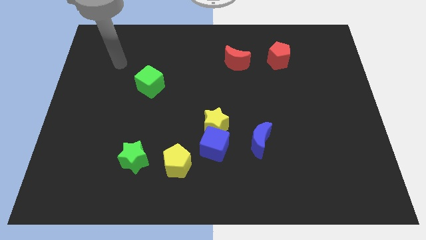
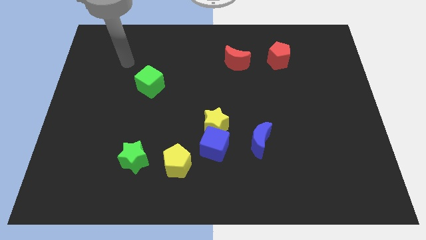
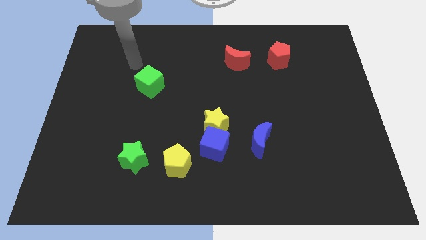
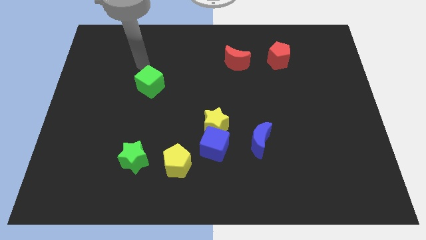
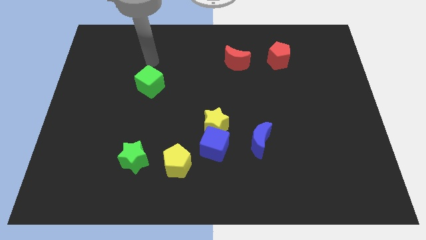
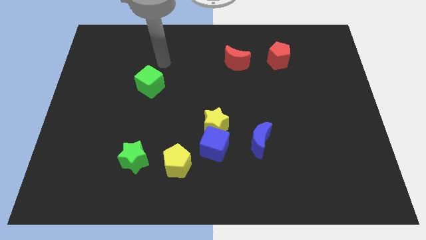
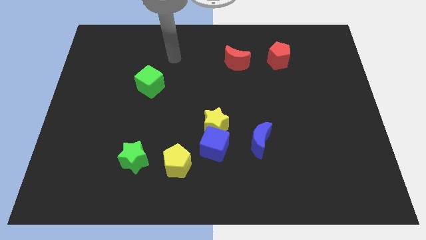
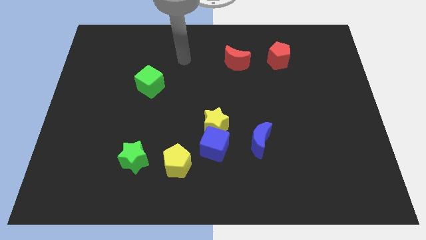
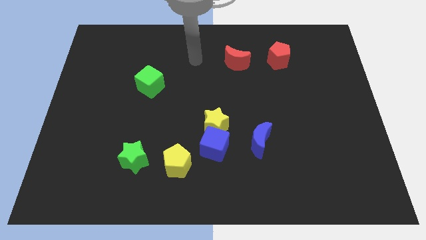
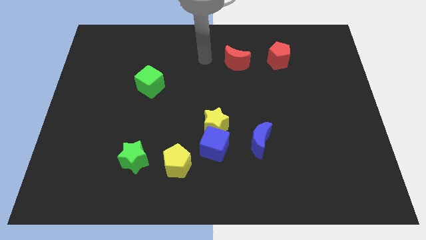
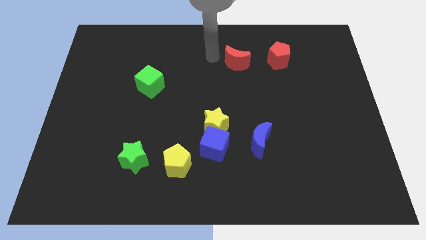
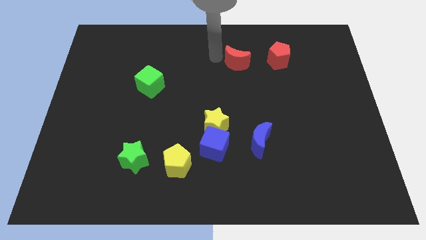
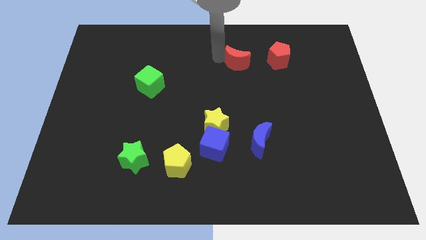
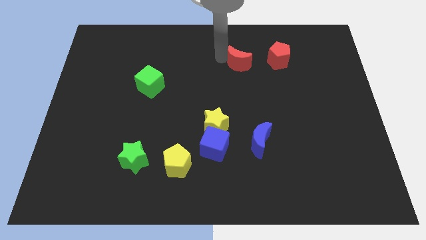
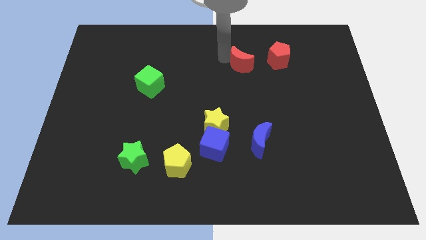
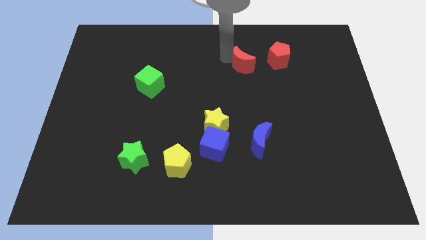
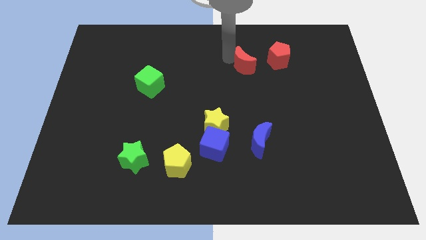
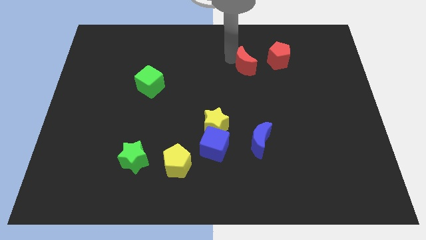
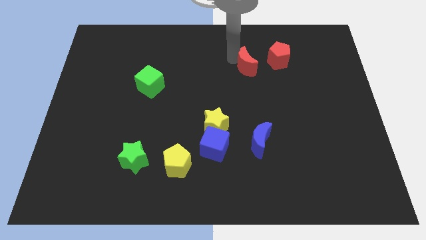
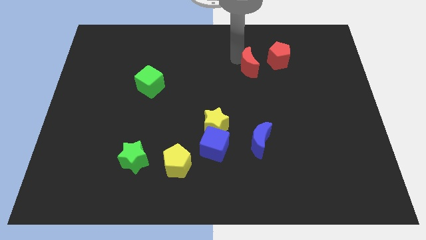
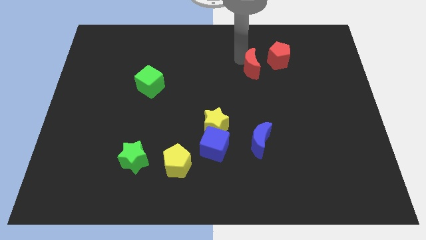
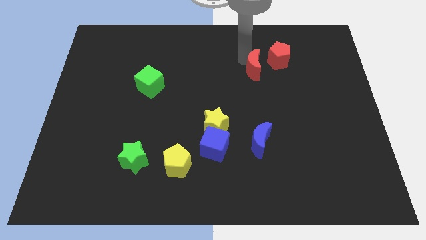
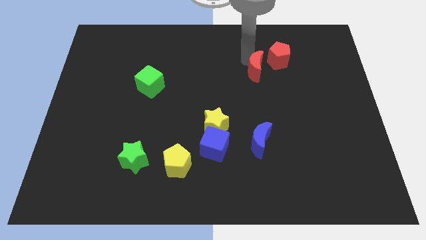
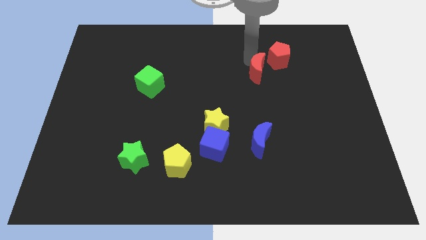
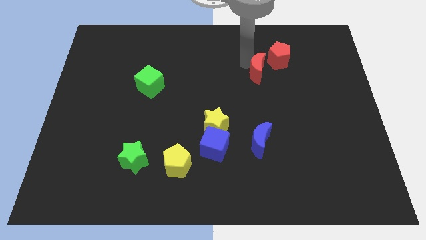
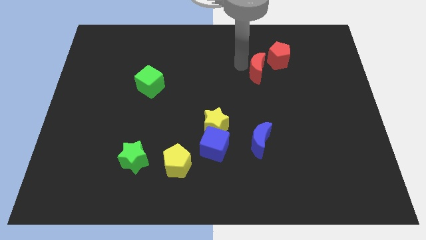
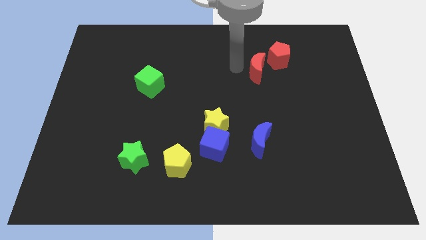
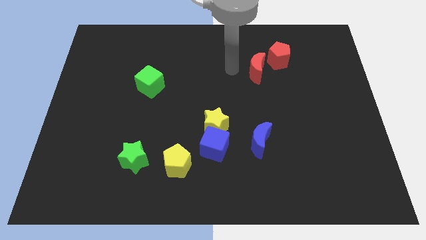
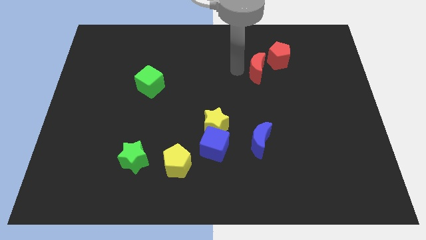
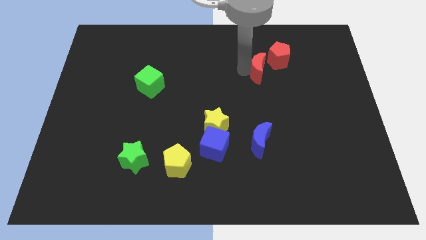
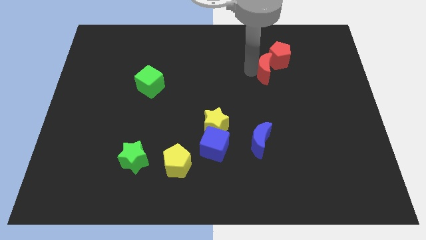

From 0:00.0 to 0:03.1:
slide the red moon right a bit

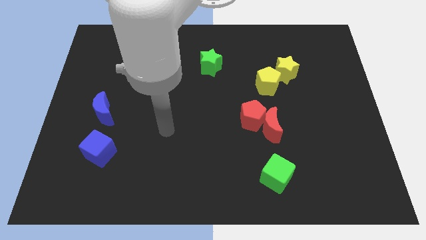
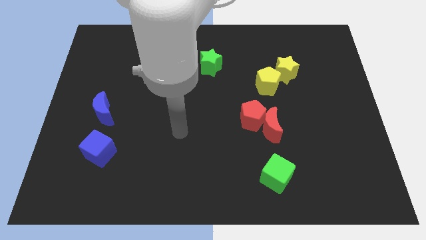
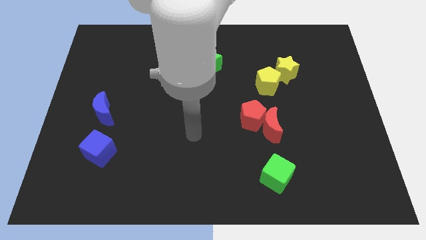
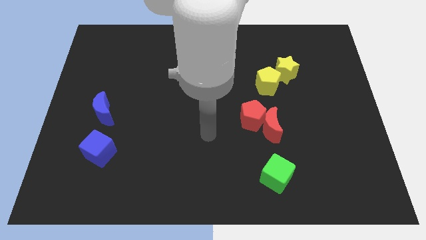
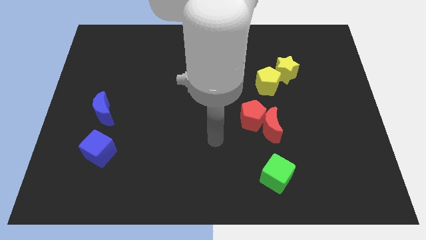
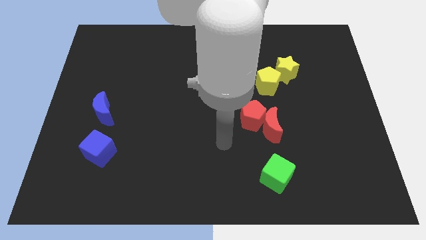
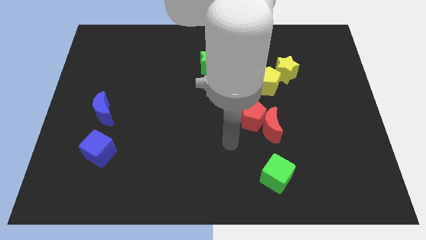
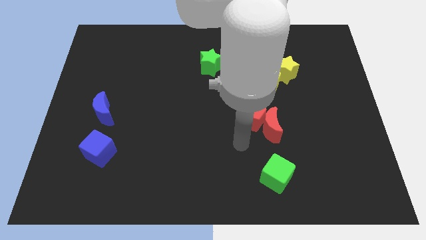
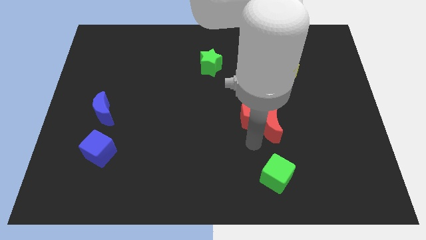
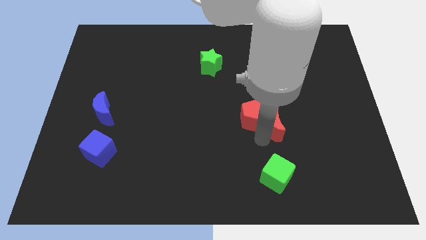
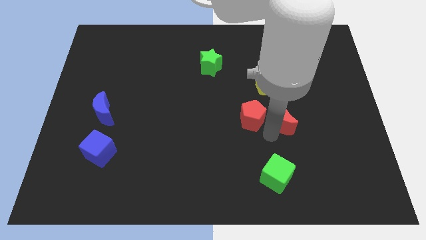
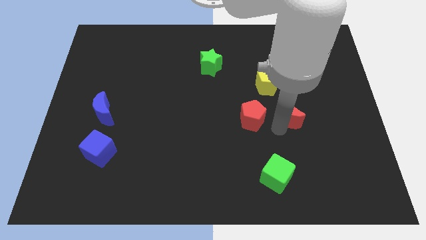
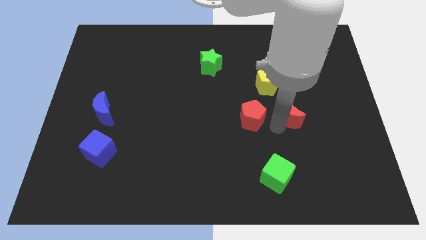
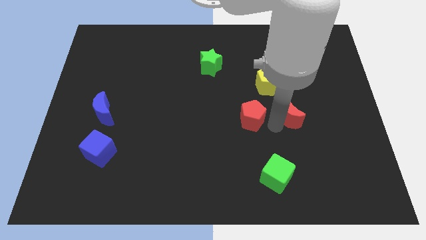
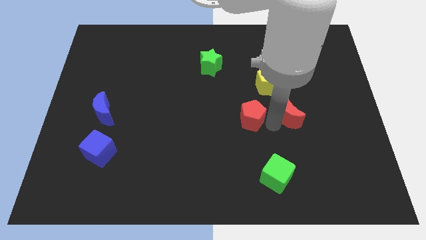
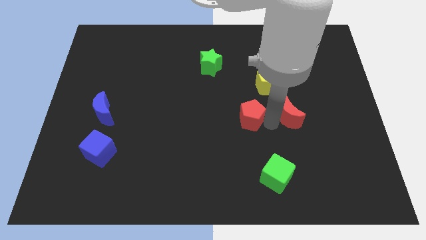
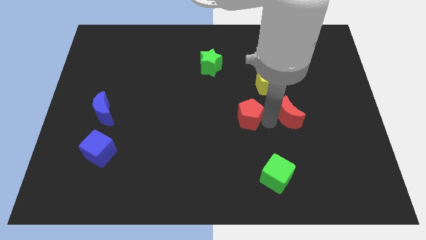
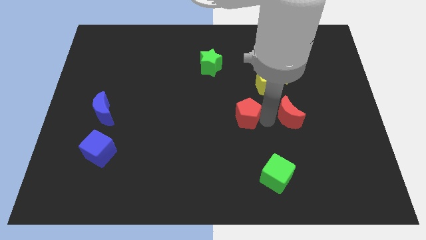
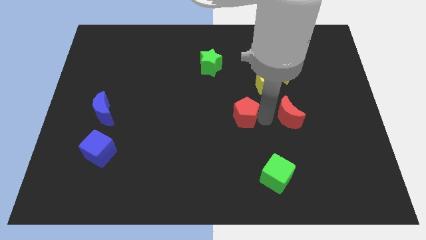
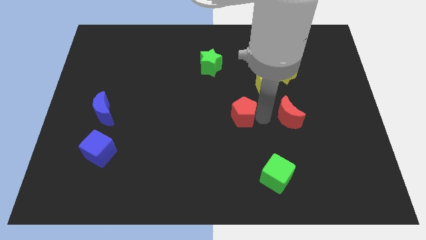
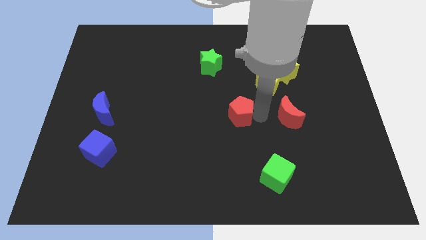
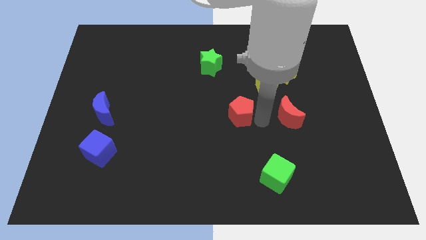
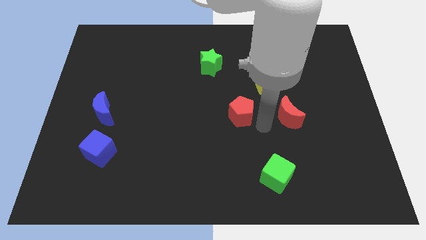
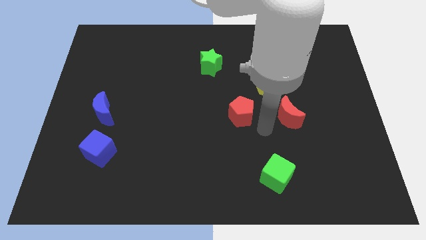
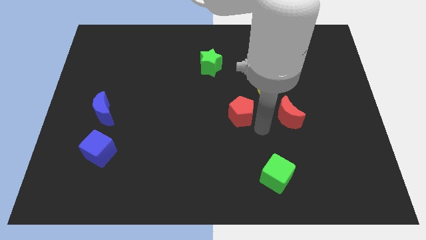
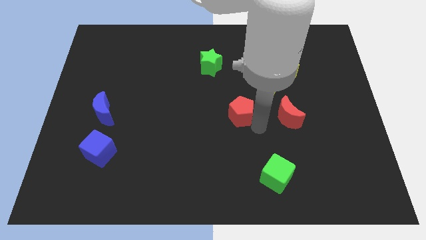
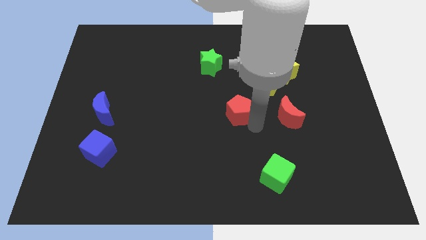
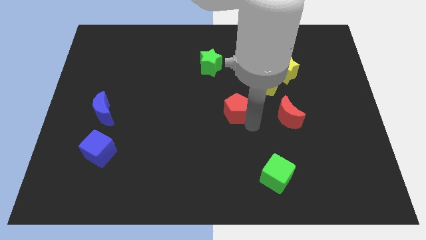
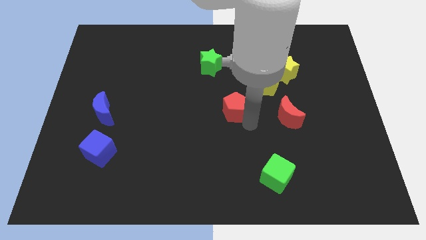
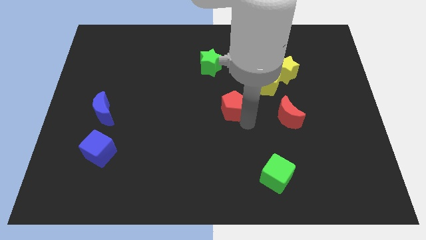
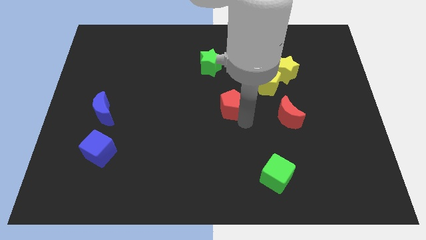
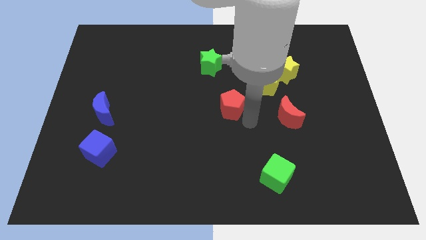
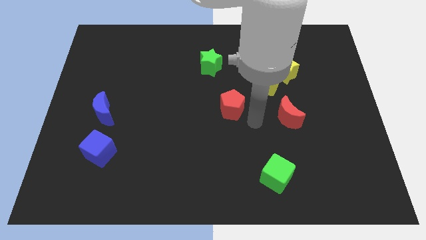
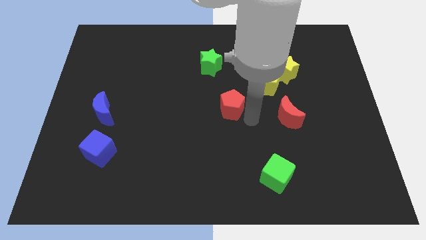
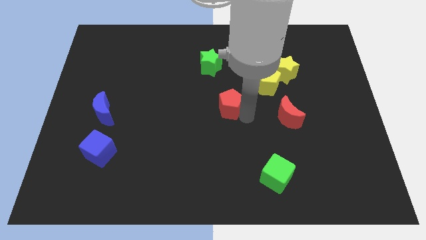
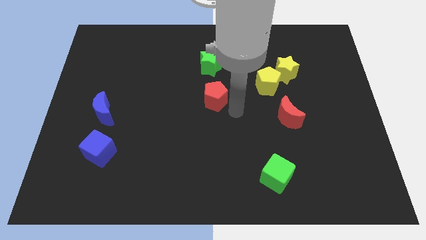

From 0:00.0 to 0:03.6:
move the red pentagon up and then left slightly

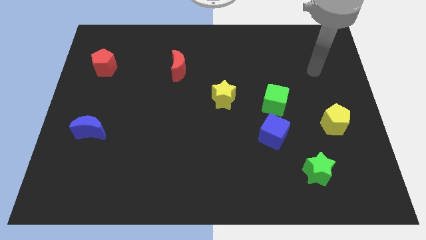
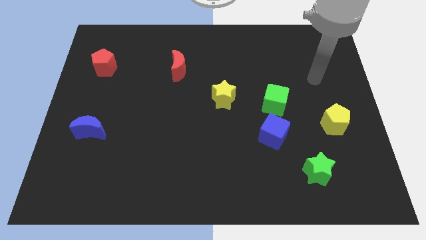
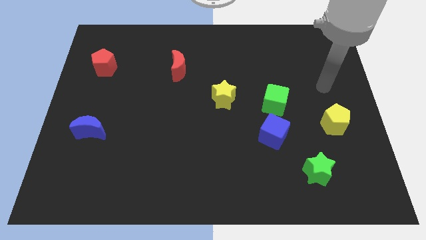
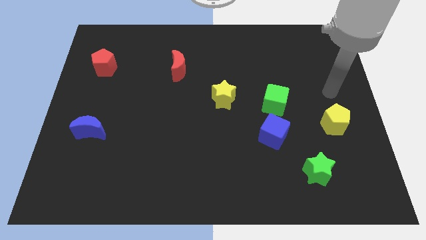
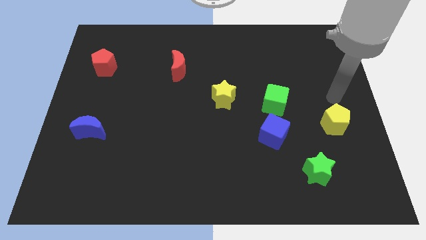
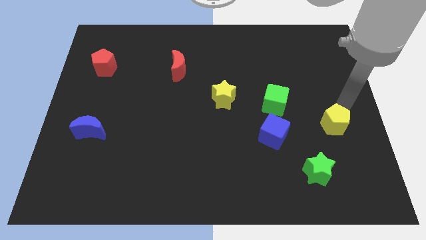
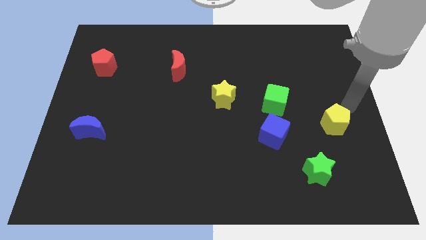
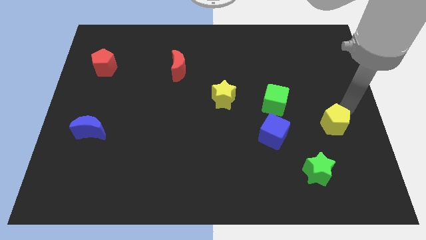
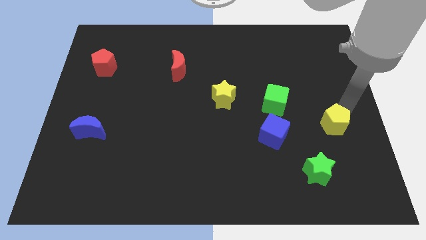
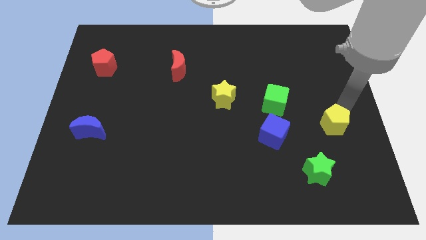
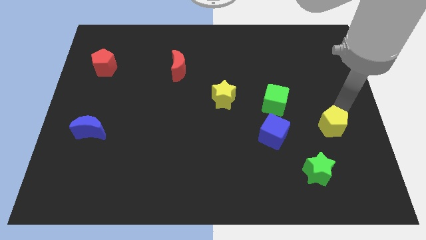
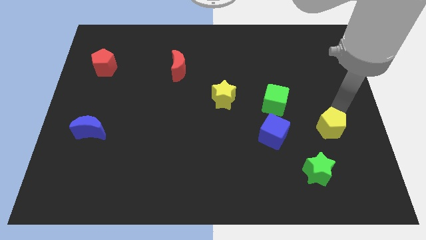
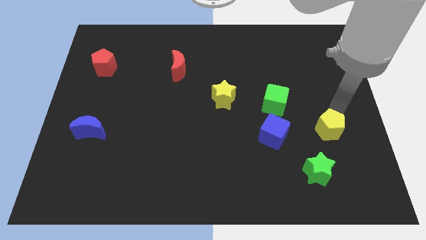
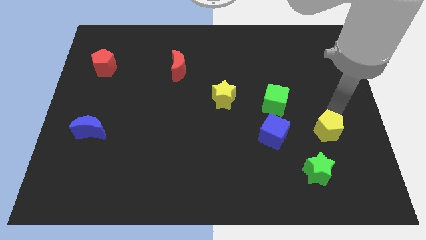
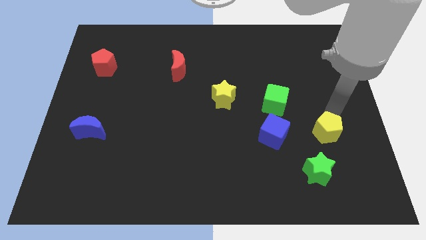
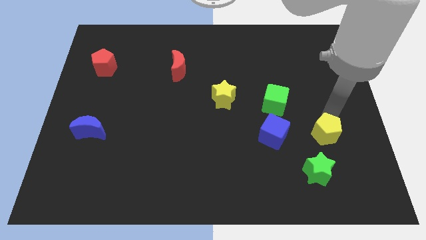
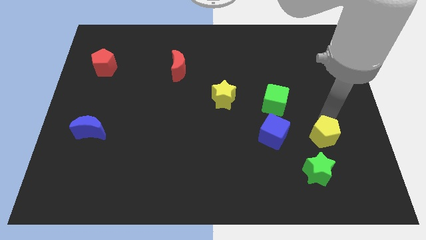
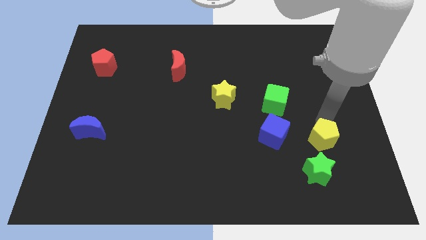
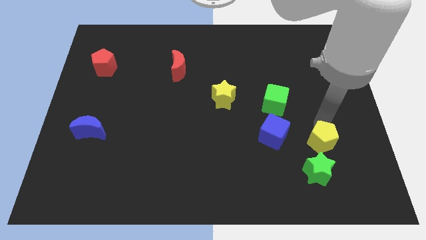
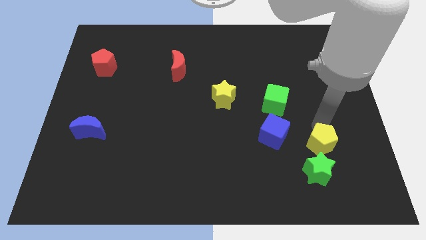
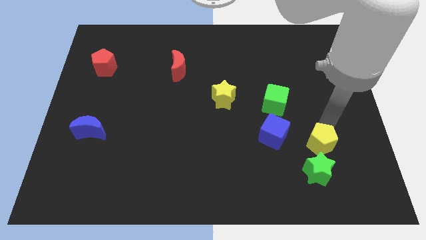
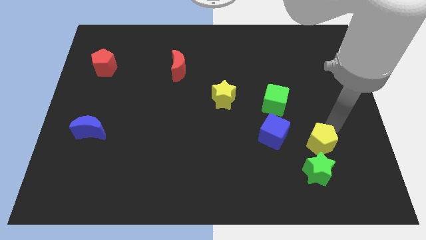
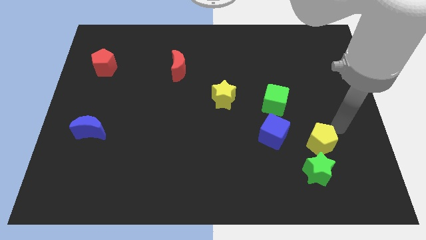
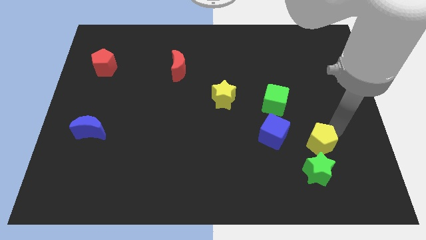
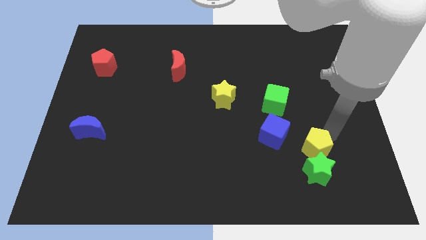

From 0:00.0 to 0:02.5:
slightly move the yellow pentagon diagonally down and left
